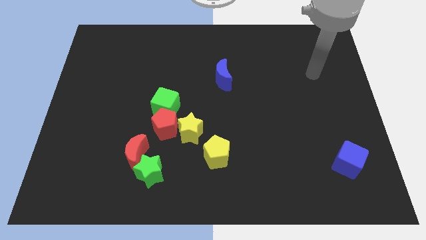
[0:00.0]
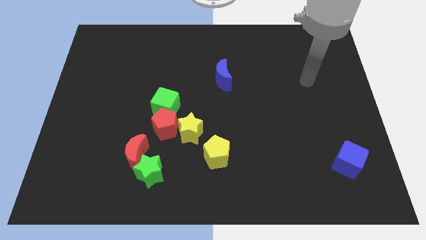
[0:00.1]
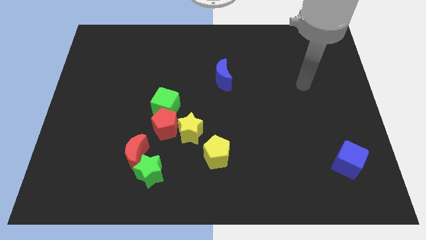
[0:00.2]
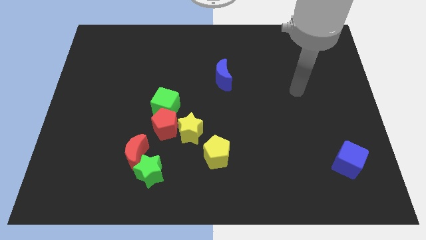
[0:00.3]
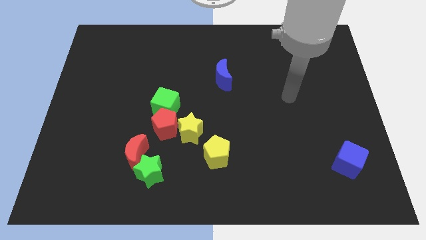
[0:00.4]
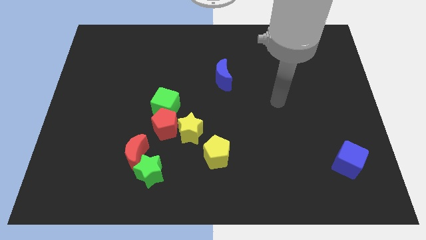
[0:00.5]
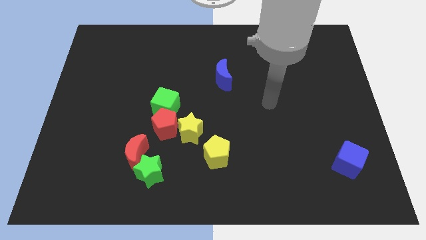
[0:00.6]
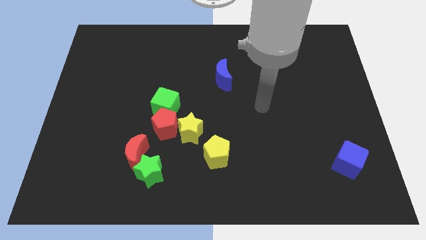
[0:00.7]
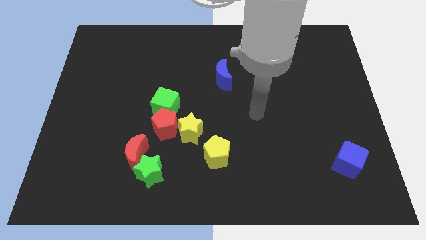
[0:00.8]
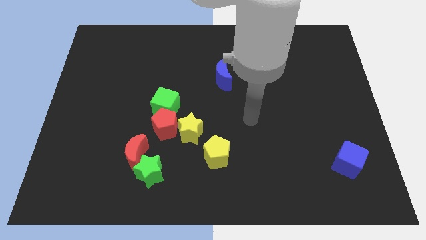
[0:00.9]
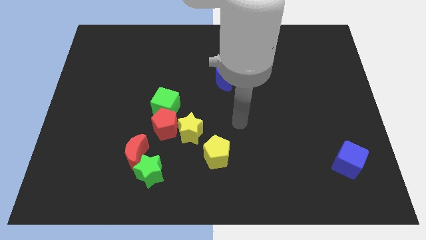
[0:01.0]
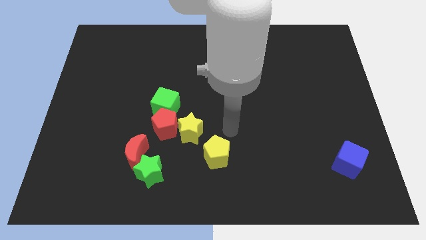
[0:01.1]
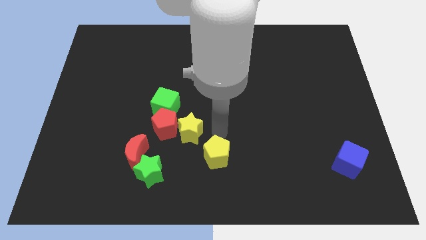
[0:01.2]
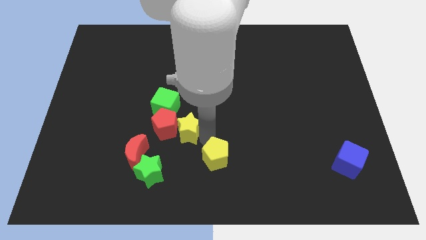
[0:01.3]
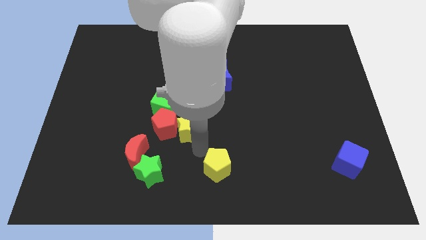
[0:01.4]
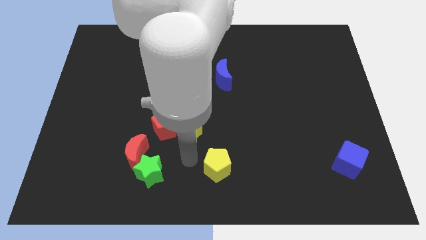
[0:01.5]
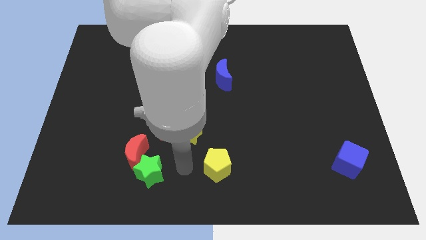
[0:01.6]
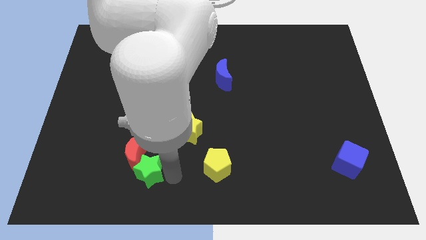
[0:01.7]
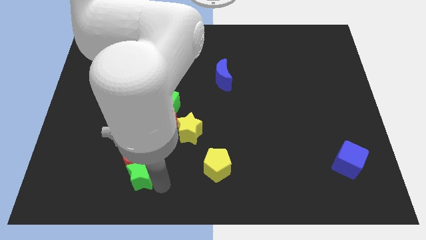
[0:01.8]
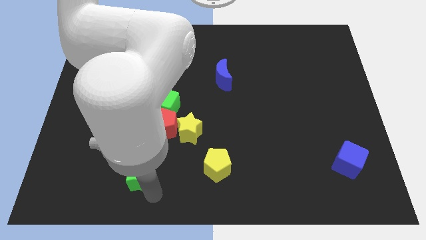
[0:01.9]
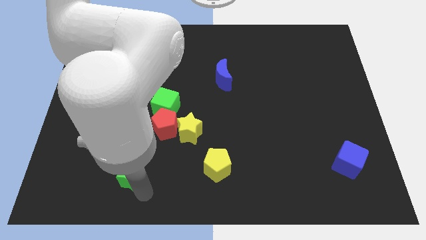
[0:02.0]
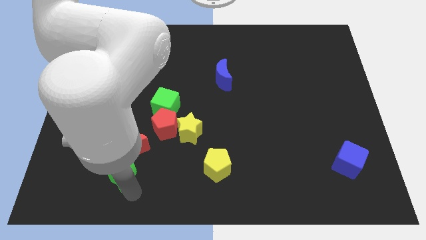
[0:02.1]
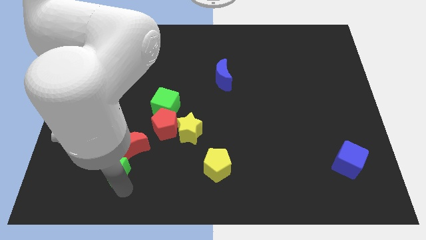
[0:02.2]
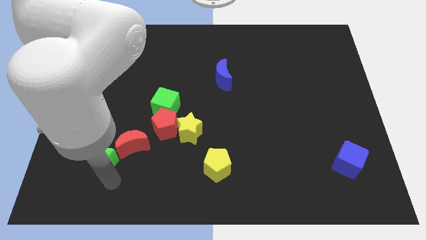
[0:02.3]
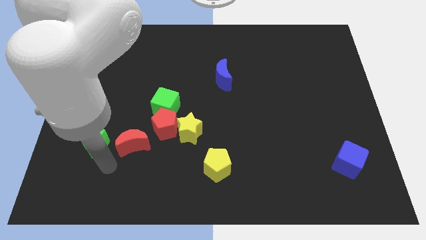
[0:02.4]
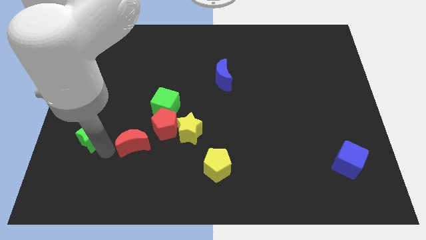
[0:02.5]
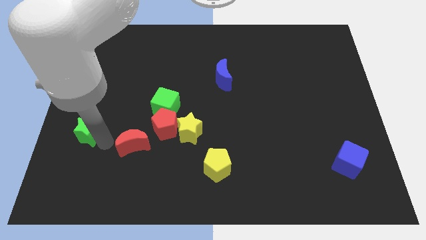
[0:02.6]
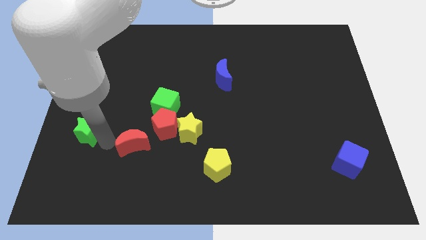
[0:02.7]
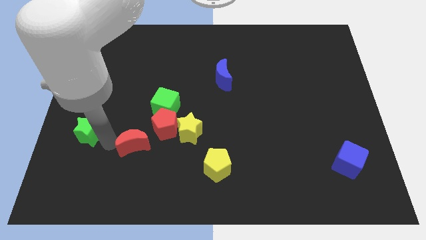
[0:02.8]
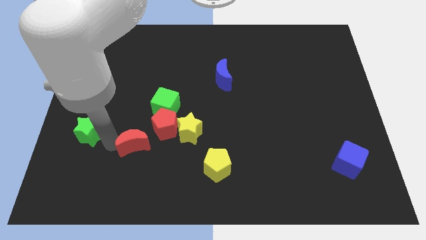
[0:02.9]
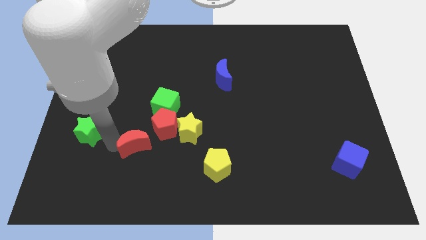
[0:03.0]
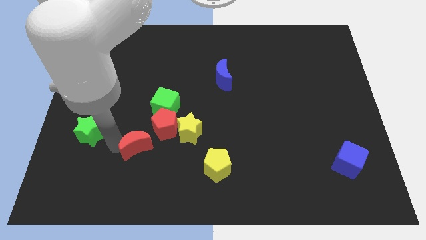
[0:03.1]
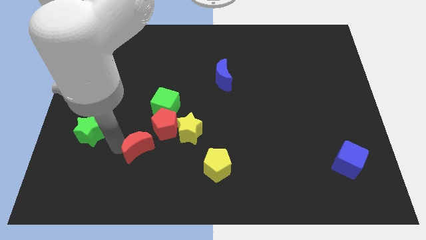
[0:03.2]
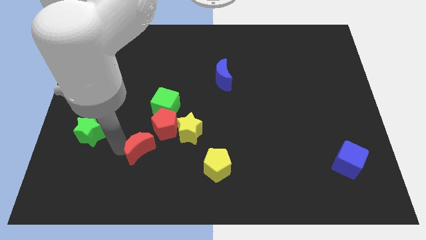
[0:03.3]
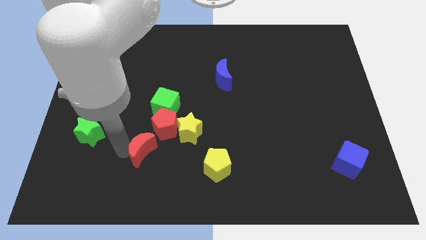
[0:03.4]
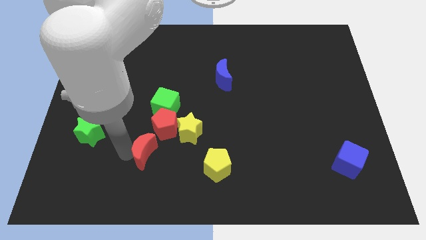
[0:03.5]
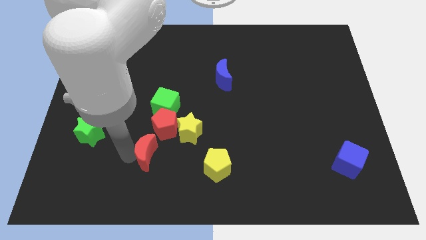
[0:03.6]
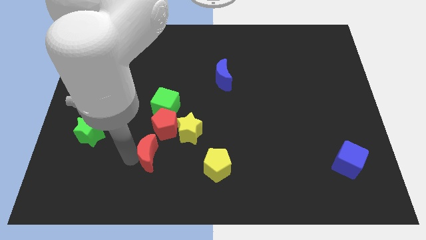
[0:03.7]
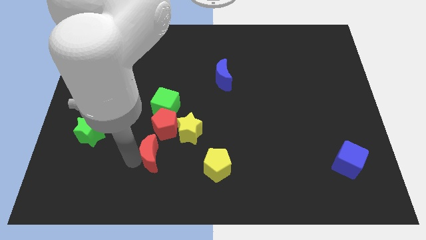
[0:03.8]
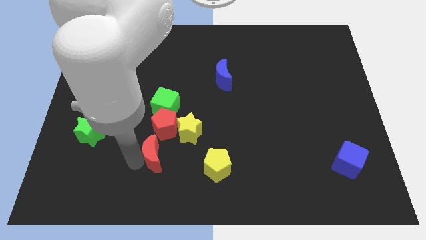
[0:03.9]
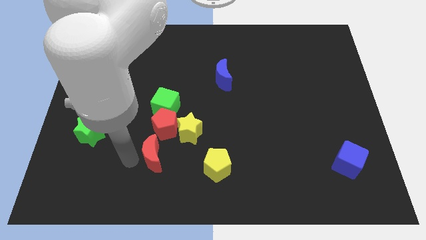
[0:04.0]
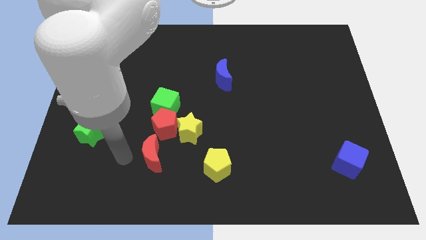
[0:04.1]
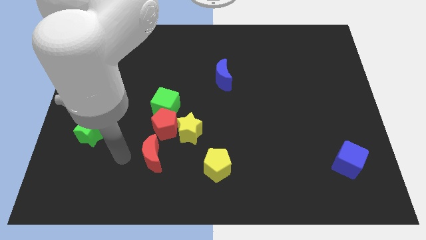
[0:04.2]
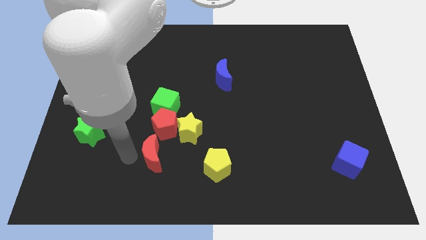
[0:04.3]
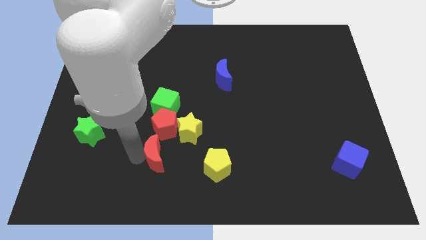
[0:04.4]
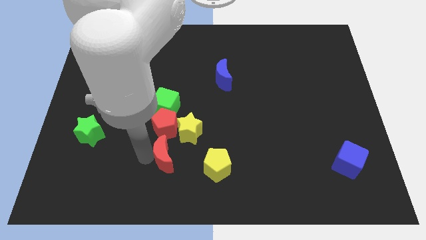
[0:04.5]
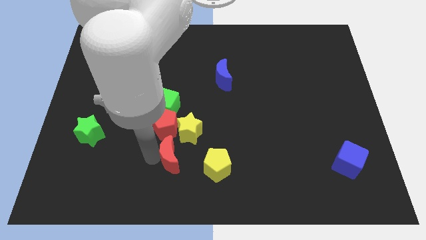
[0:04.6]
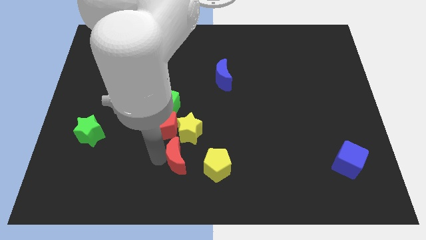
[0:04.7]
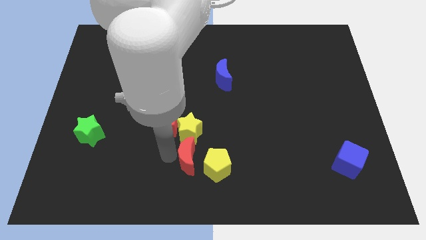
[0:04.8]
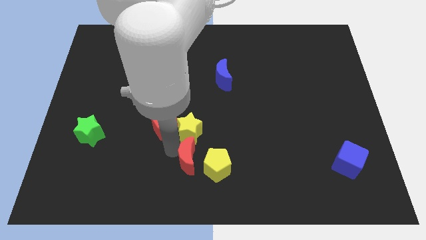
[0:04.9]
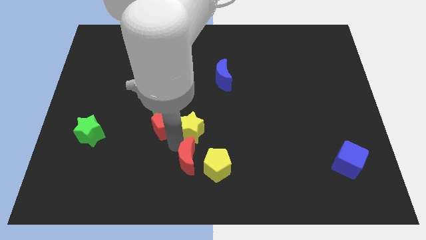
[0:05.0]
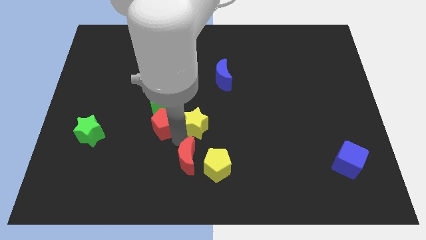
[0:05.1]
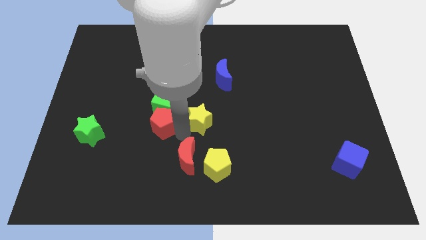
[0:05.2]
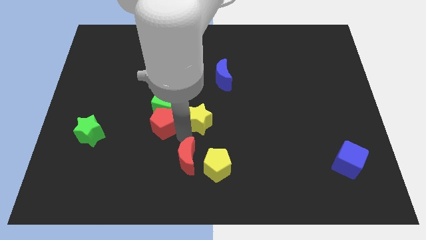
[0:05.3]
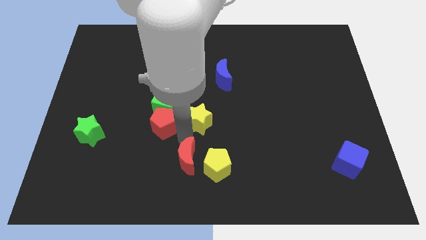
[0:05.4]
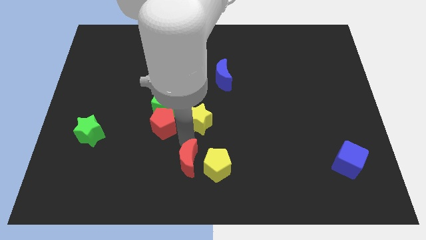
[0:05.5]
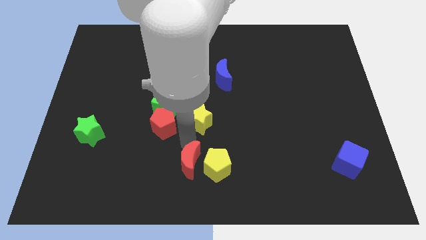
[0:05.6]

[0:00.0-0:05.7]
put the red moon to the bottom left of the yellow pentagon

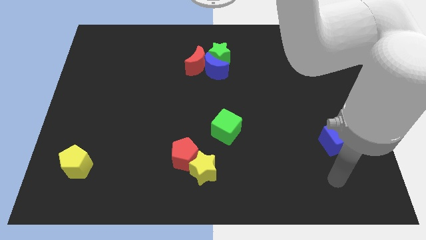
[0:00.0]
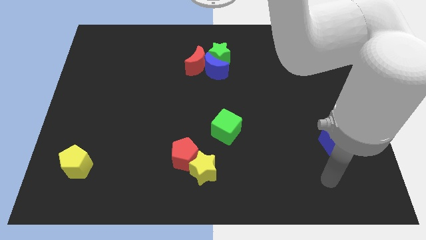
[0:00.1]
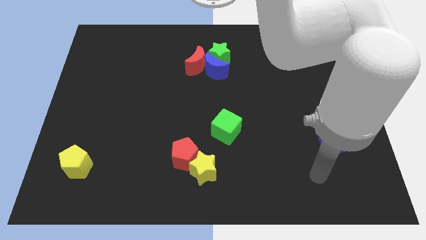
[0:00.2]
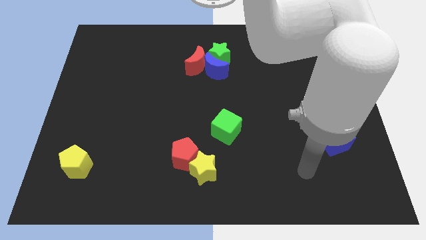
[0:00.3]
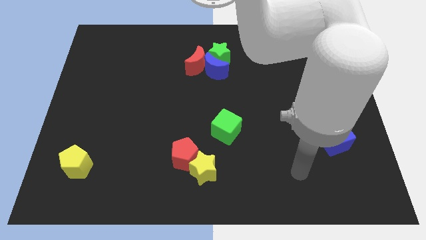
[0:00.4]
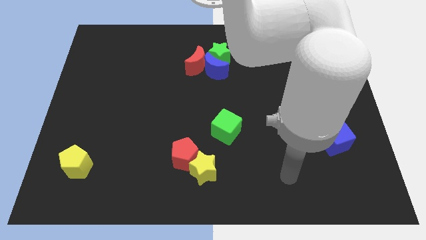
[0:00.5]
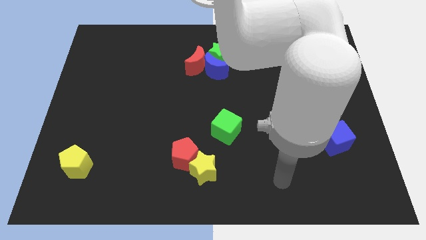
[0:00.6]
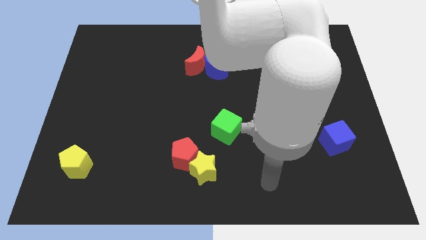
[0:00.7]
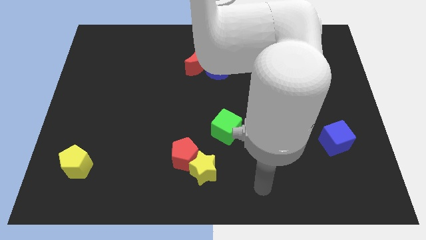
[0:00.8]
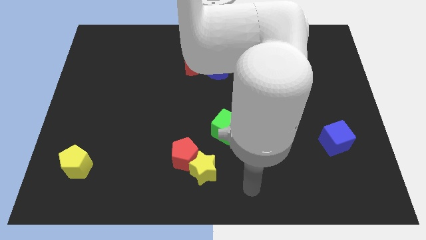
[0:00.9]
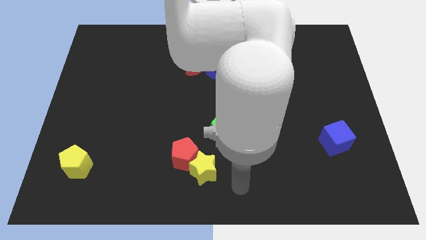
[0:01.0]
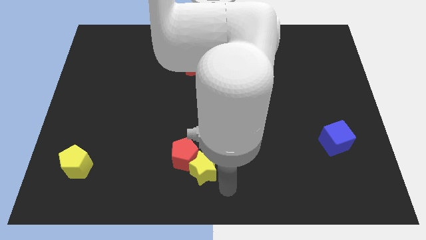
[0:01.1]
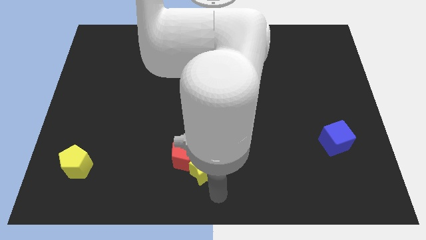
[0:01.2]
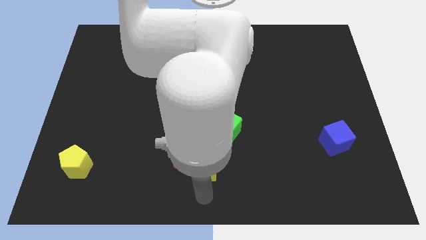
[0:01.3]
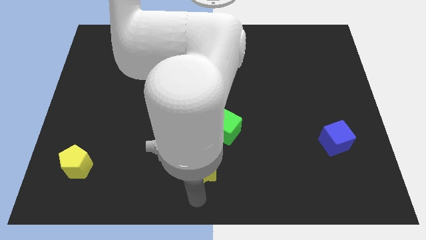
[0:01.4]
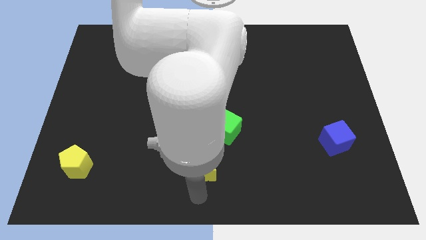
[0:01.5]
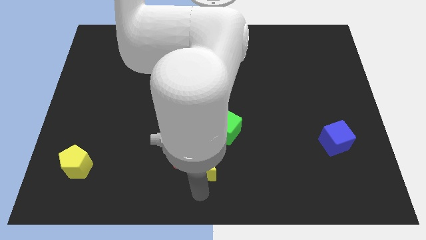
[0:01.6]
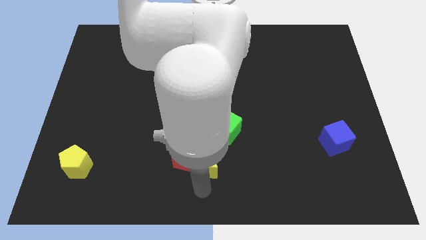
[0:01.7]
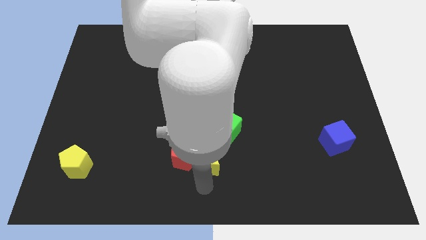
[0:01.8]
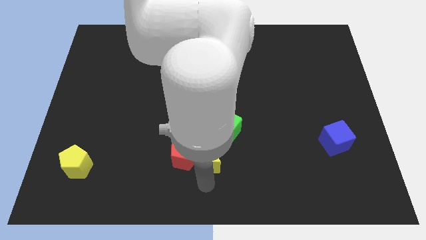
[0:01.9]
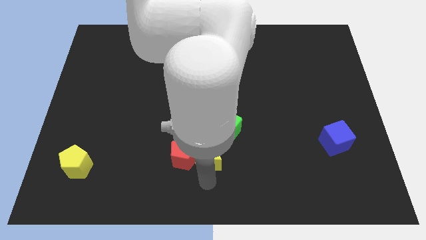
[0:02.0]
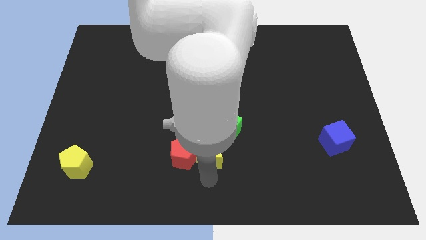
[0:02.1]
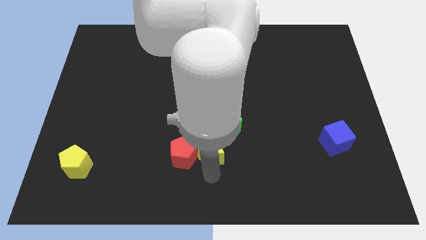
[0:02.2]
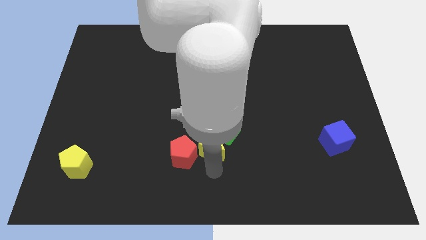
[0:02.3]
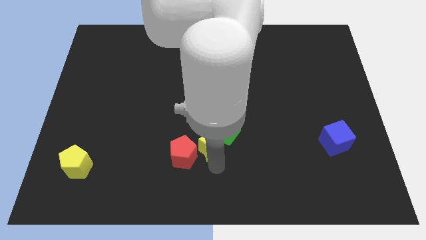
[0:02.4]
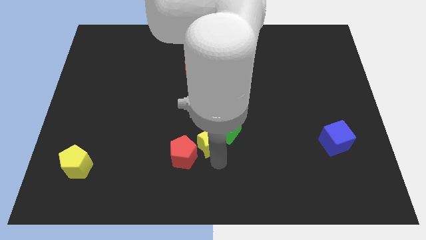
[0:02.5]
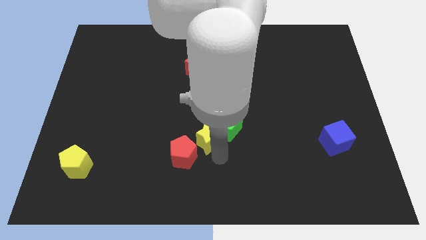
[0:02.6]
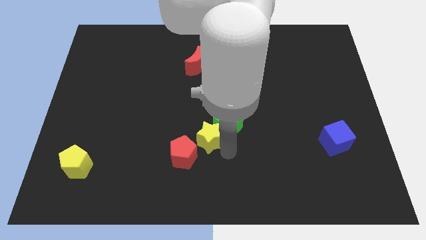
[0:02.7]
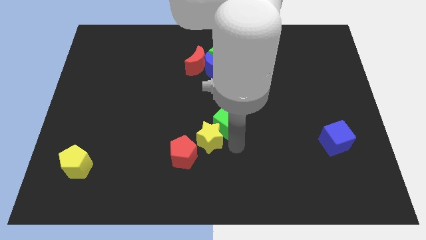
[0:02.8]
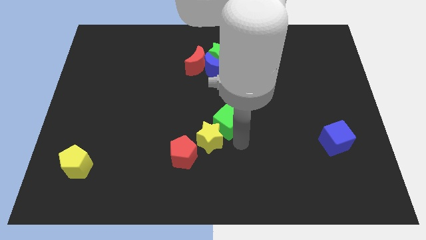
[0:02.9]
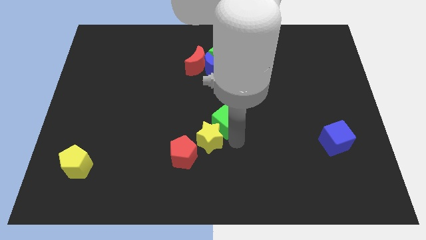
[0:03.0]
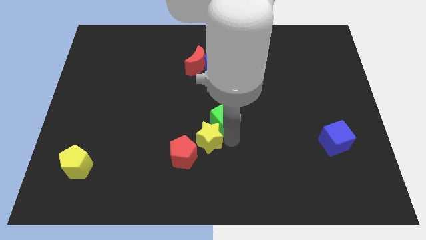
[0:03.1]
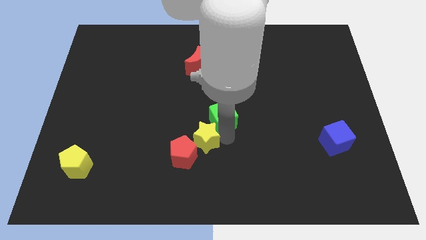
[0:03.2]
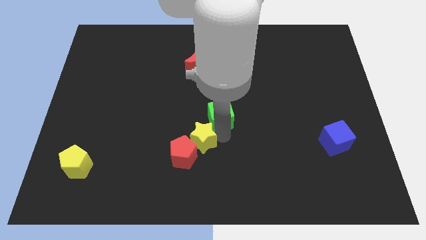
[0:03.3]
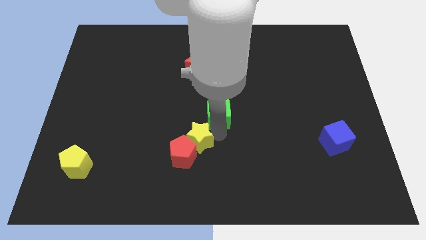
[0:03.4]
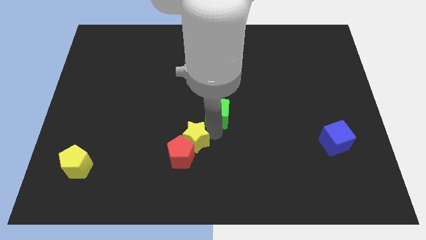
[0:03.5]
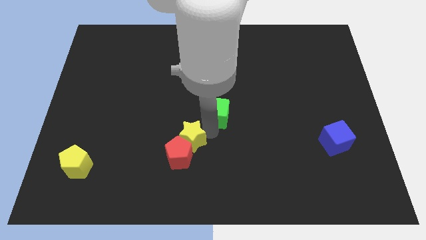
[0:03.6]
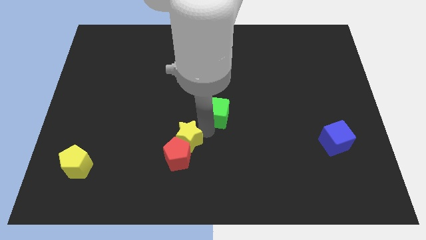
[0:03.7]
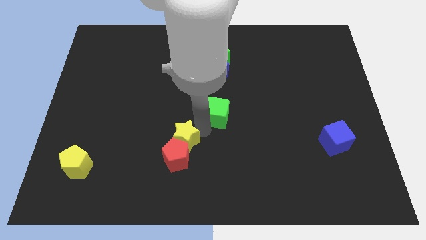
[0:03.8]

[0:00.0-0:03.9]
put the yellow star to the top left of the red pentagon
